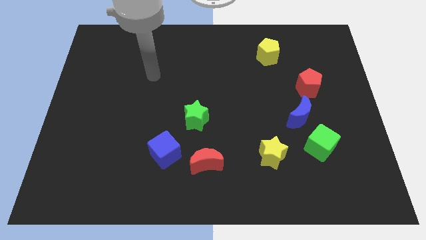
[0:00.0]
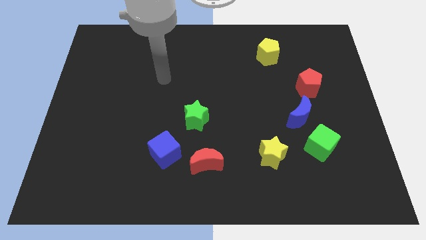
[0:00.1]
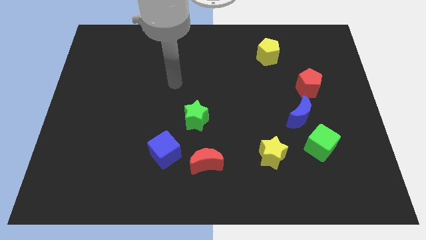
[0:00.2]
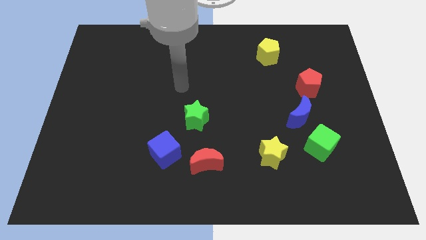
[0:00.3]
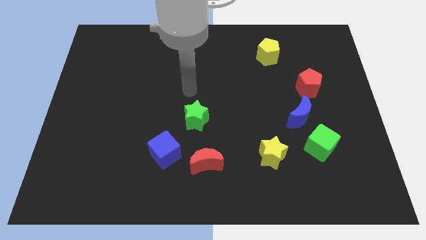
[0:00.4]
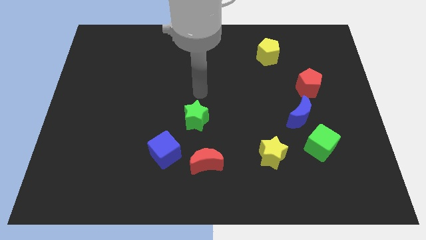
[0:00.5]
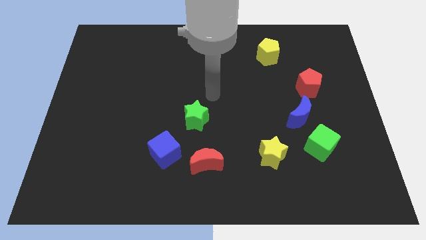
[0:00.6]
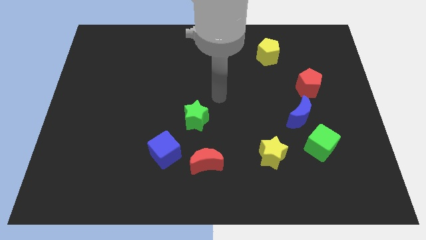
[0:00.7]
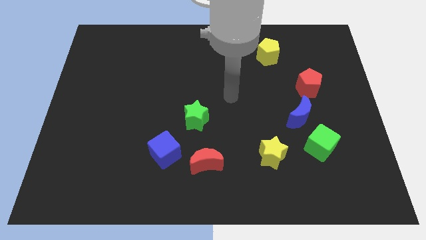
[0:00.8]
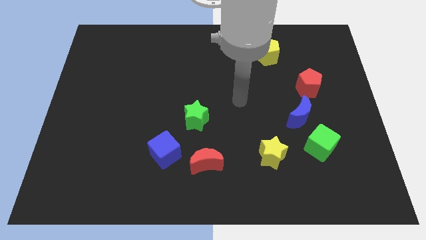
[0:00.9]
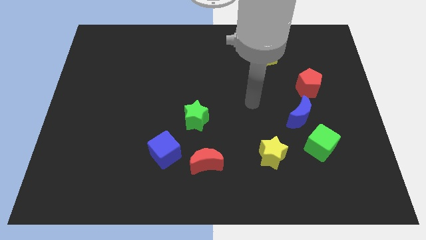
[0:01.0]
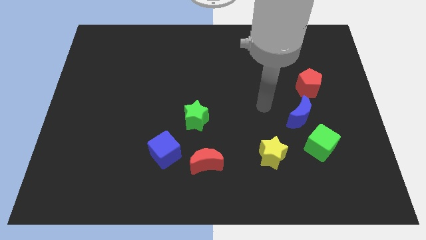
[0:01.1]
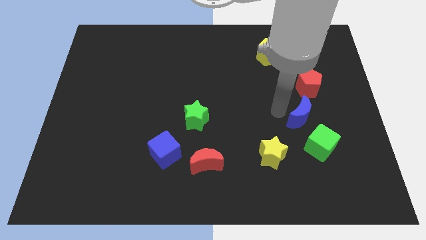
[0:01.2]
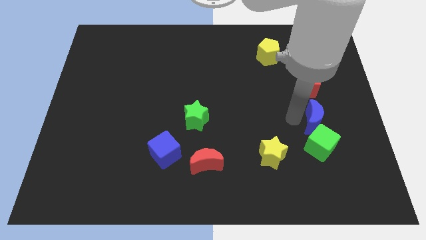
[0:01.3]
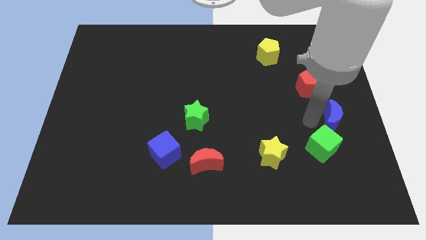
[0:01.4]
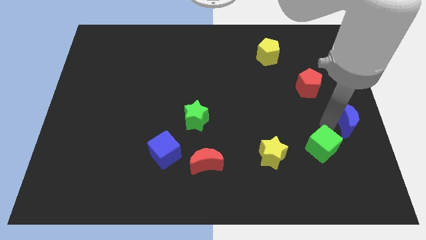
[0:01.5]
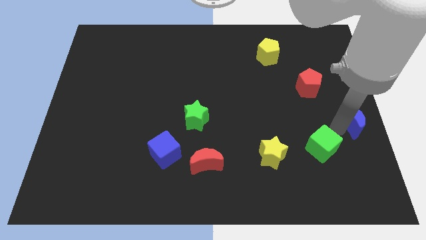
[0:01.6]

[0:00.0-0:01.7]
move the green cube away from the blue moon

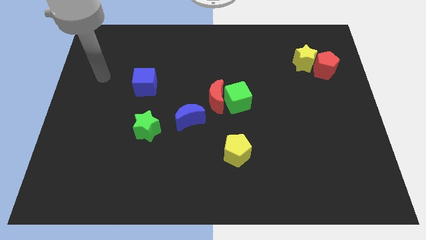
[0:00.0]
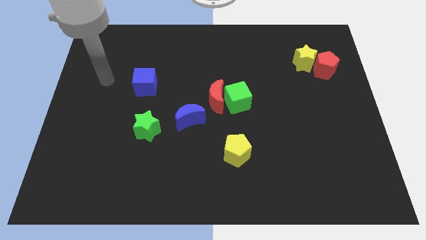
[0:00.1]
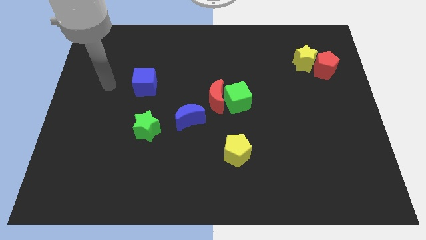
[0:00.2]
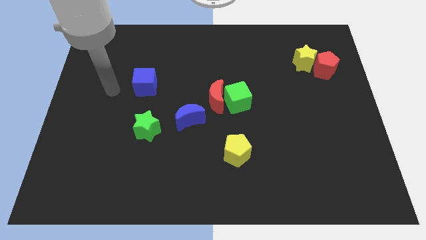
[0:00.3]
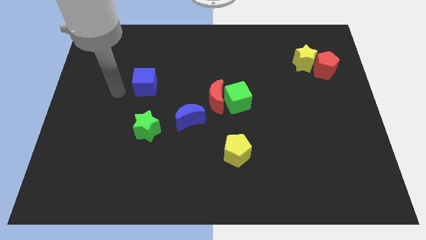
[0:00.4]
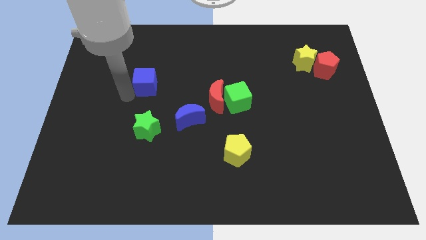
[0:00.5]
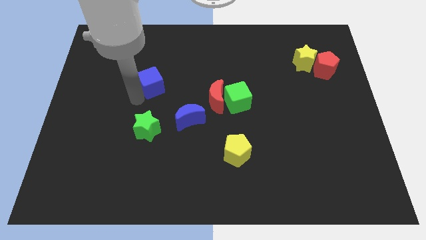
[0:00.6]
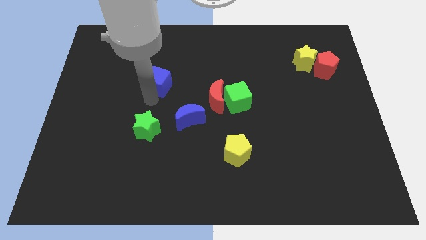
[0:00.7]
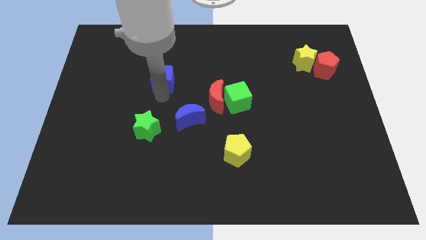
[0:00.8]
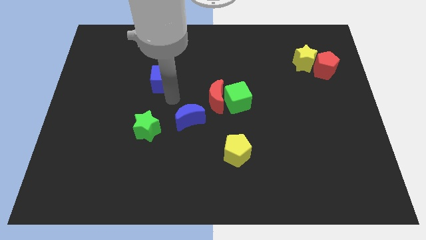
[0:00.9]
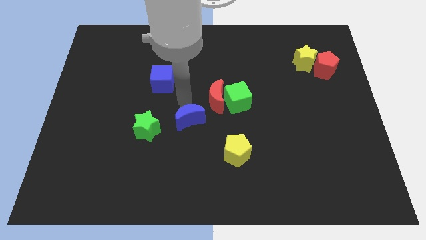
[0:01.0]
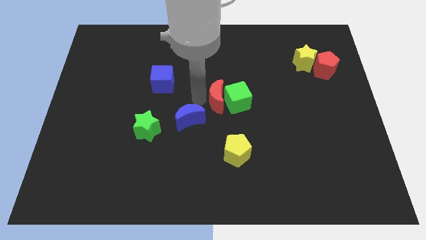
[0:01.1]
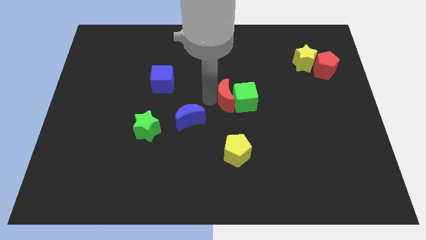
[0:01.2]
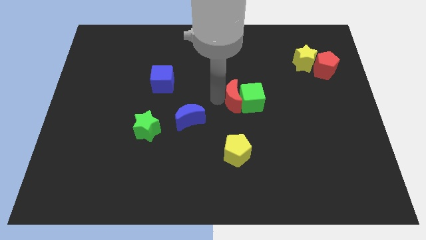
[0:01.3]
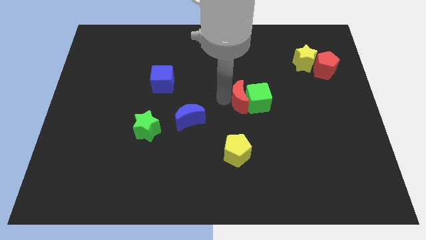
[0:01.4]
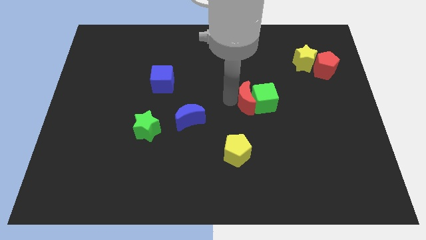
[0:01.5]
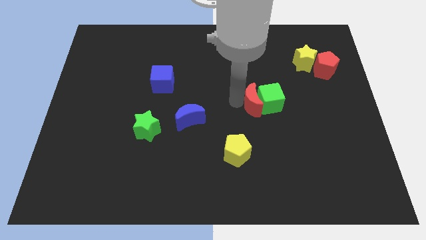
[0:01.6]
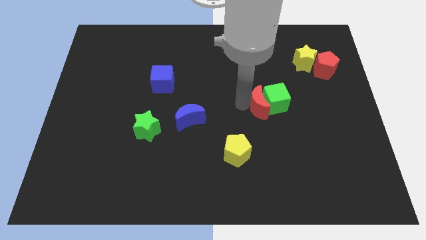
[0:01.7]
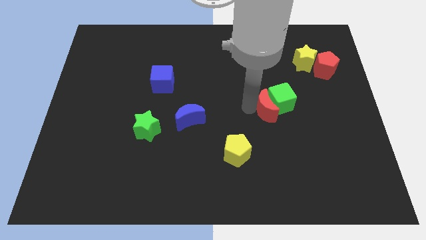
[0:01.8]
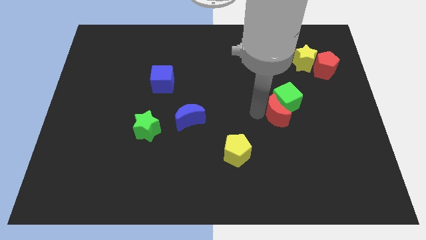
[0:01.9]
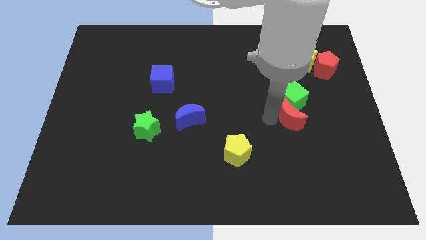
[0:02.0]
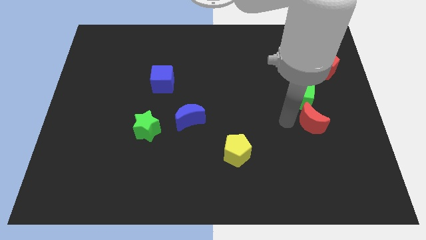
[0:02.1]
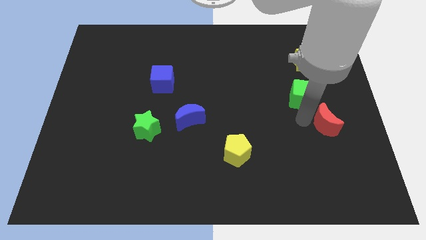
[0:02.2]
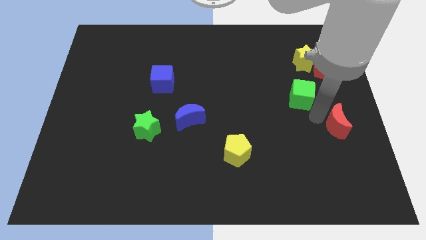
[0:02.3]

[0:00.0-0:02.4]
move the green cube away from the red moon

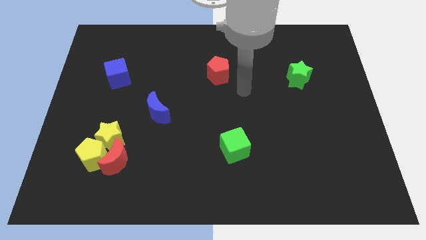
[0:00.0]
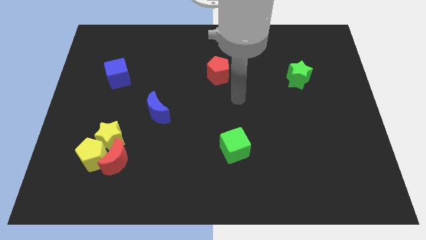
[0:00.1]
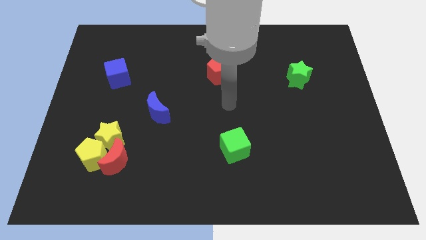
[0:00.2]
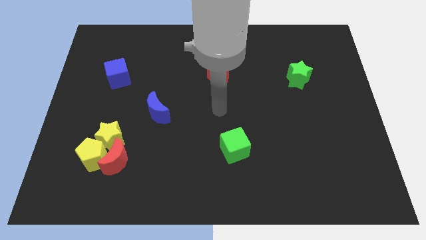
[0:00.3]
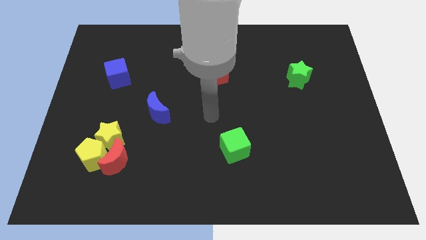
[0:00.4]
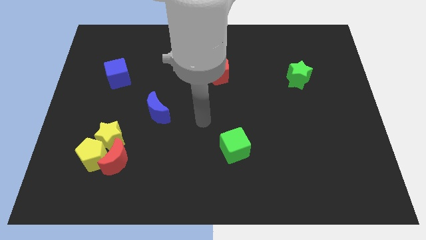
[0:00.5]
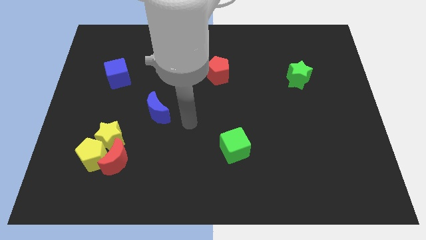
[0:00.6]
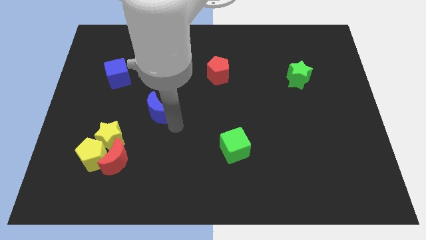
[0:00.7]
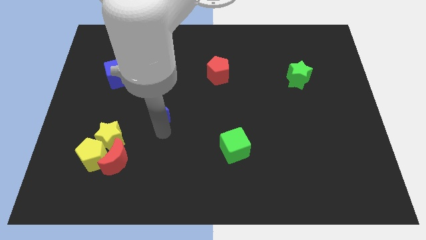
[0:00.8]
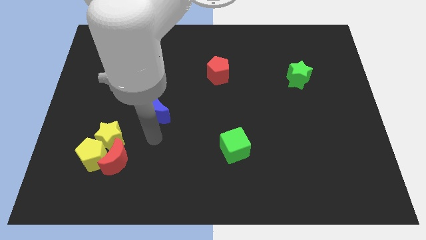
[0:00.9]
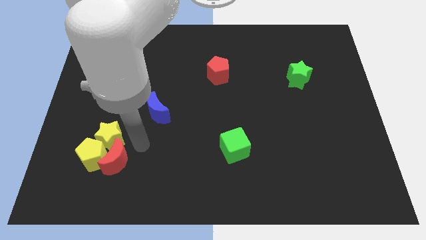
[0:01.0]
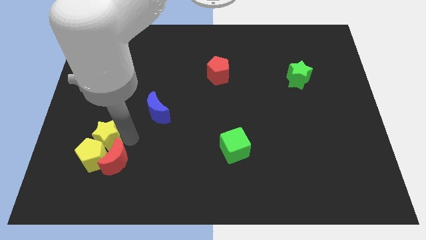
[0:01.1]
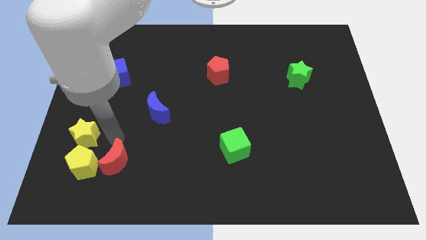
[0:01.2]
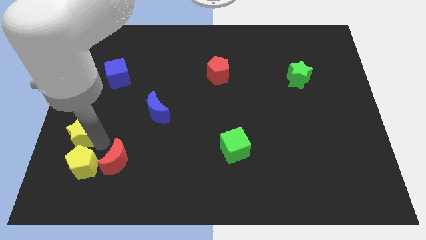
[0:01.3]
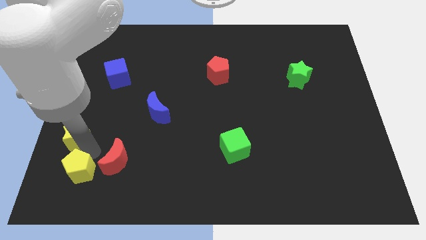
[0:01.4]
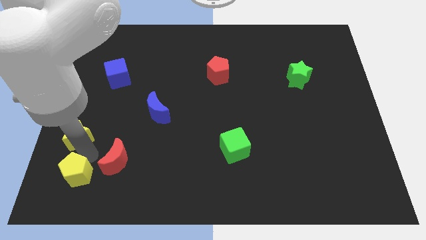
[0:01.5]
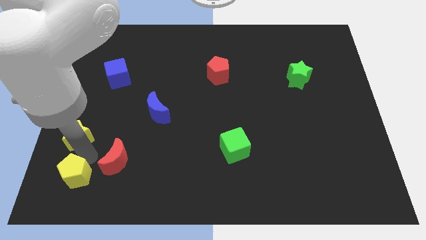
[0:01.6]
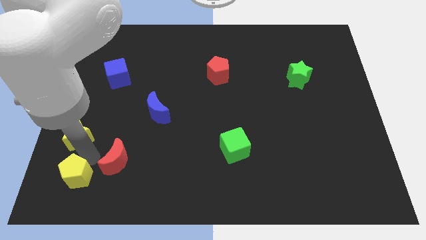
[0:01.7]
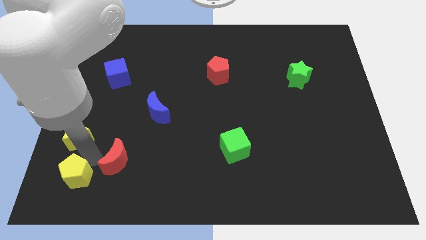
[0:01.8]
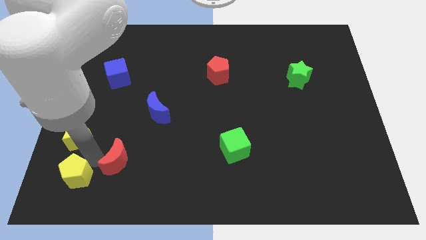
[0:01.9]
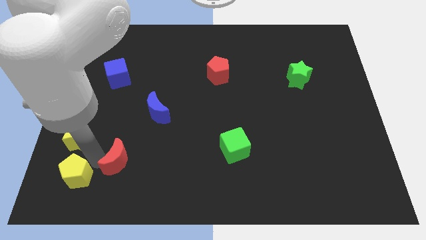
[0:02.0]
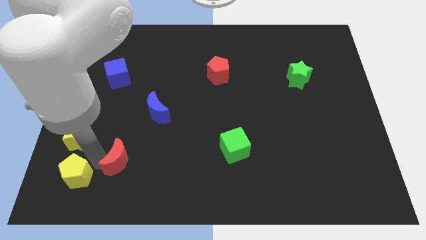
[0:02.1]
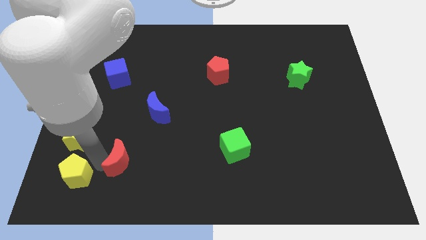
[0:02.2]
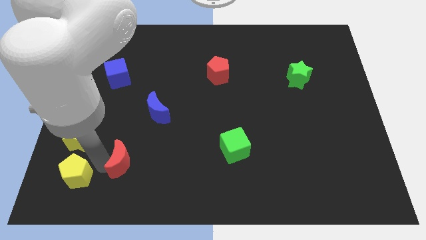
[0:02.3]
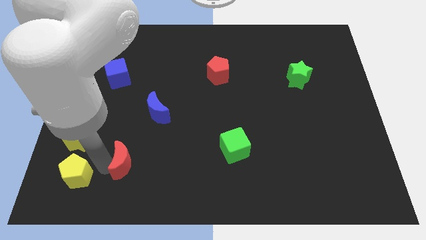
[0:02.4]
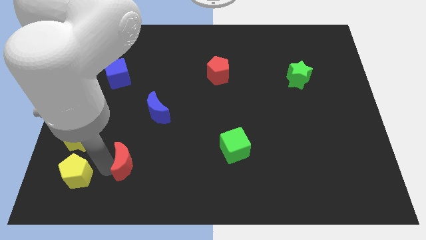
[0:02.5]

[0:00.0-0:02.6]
pull the red moon apart from the yellow pentagon and yellow star

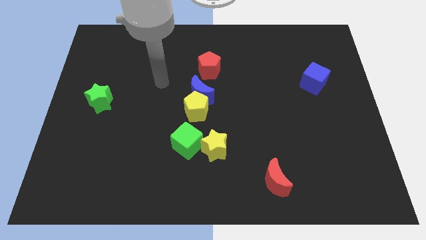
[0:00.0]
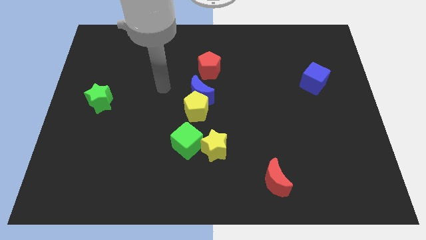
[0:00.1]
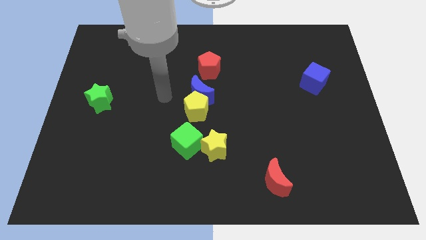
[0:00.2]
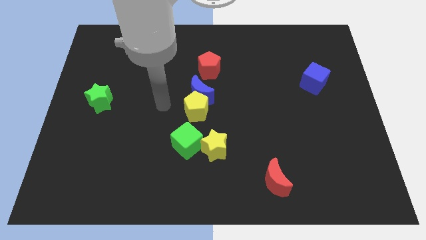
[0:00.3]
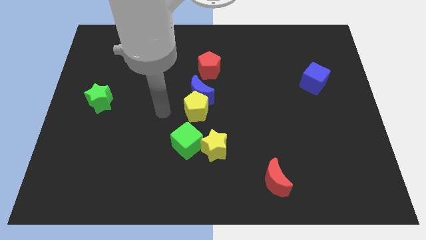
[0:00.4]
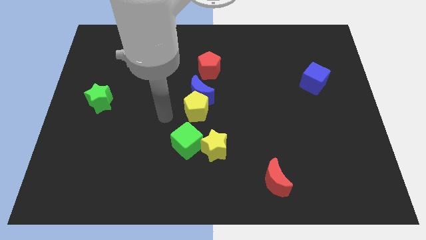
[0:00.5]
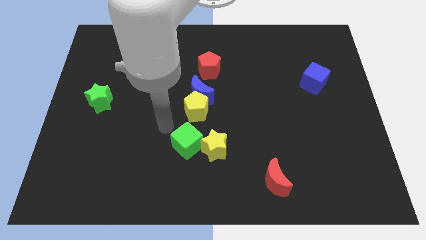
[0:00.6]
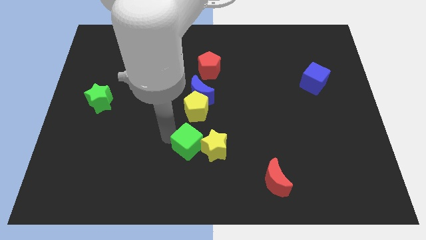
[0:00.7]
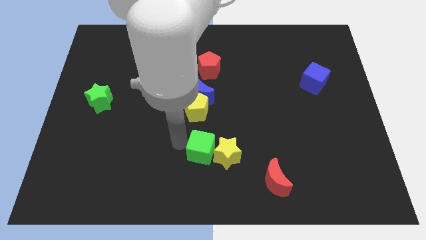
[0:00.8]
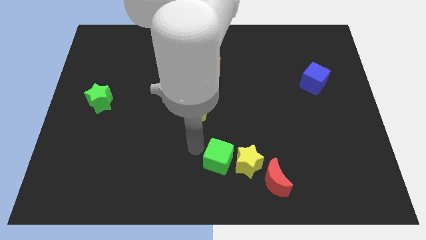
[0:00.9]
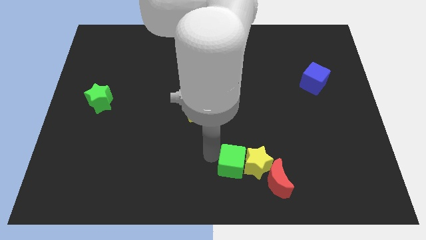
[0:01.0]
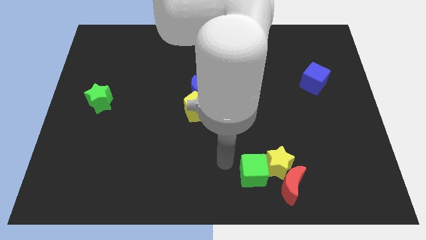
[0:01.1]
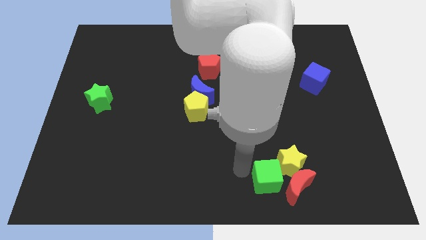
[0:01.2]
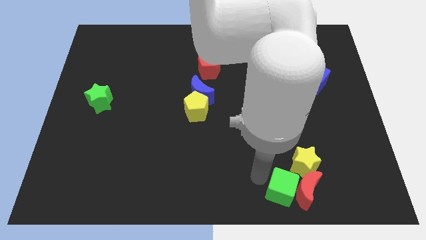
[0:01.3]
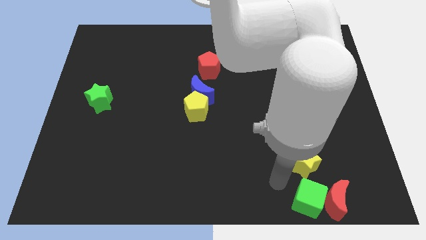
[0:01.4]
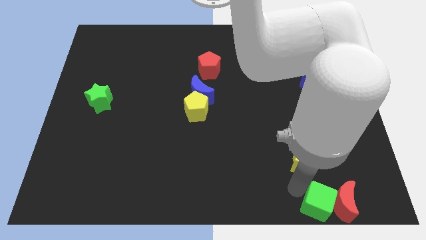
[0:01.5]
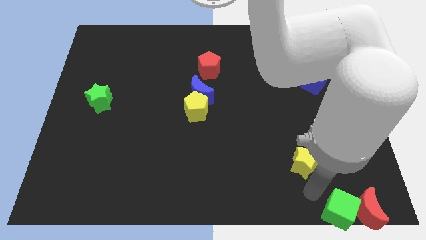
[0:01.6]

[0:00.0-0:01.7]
move the yellow star away from the green cube

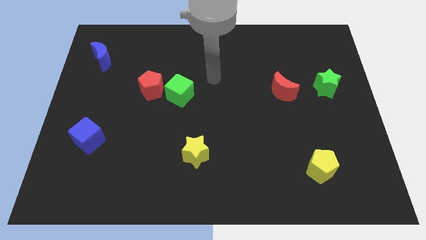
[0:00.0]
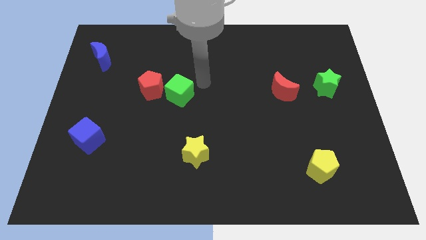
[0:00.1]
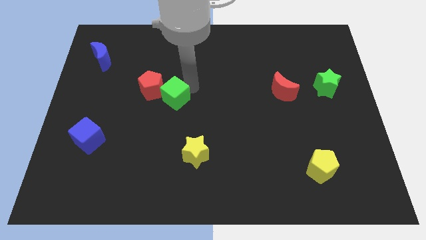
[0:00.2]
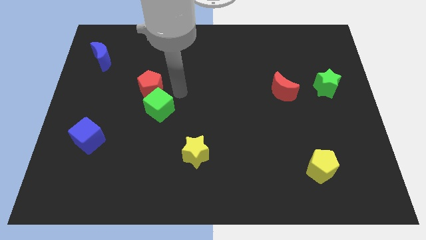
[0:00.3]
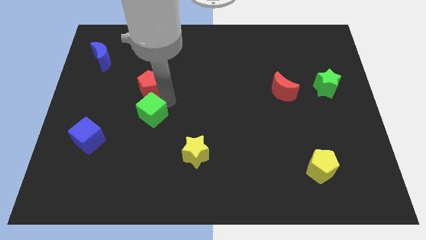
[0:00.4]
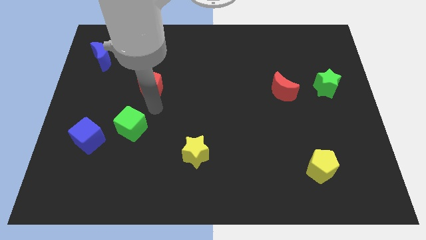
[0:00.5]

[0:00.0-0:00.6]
pull the red pentagon apart from the green cube

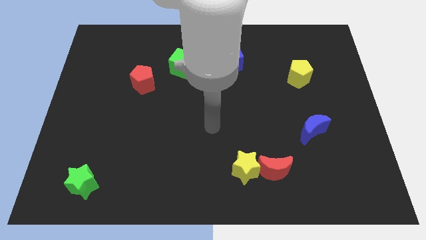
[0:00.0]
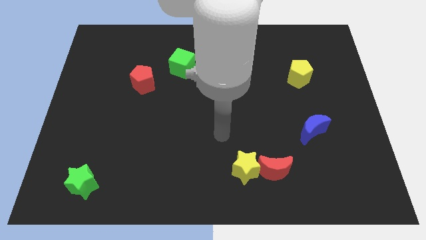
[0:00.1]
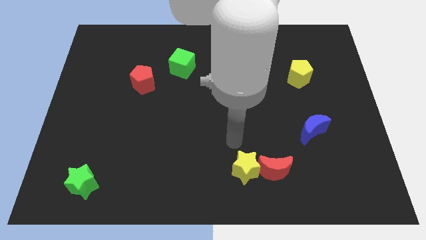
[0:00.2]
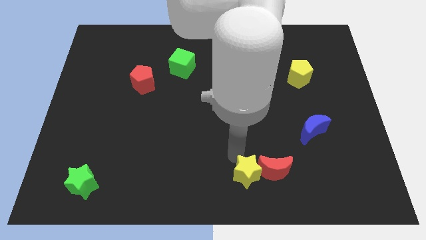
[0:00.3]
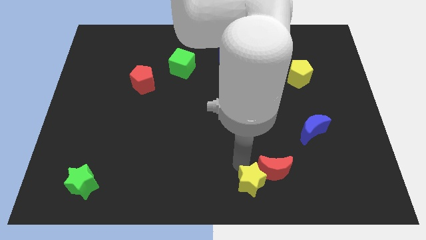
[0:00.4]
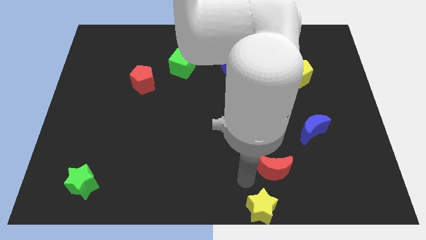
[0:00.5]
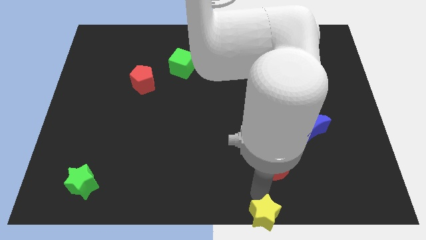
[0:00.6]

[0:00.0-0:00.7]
separate the red moon from the yellow star
